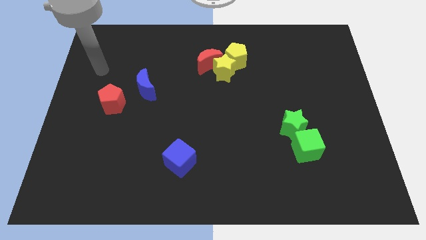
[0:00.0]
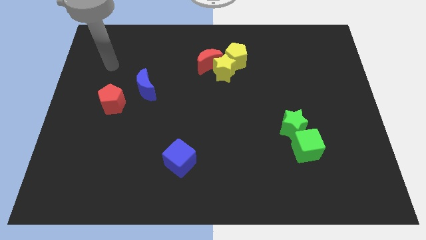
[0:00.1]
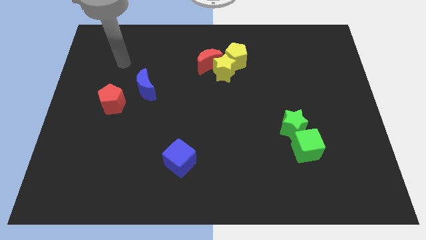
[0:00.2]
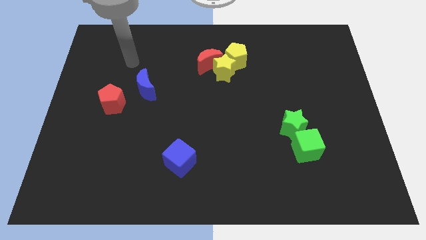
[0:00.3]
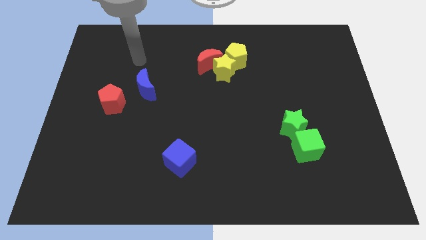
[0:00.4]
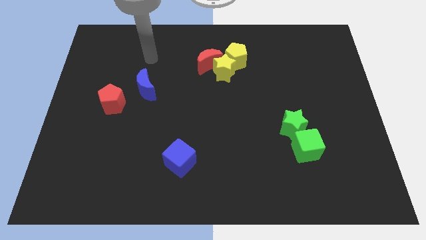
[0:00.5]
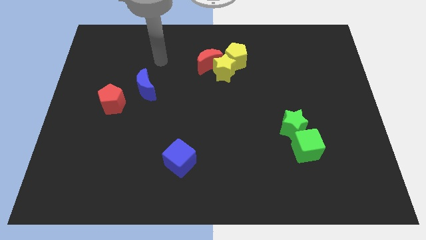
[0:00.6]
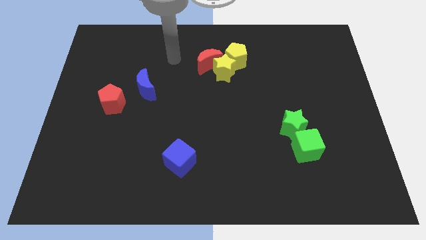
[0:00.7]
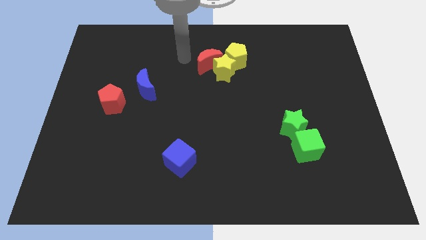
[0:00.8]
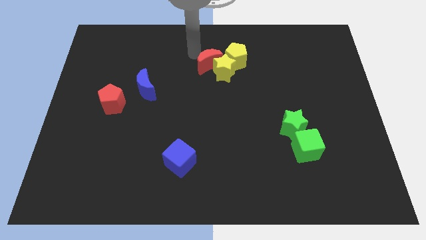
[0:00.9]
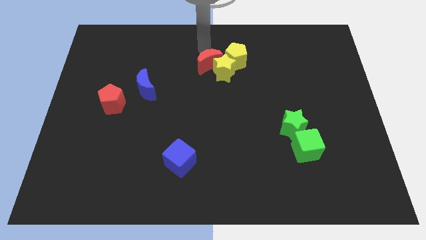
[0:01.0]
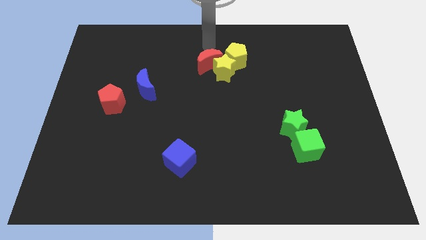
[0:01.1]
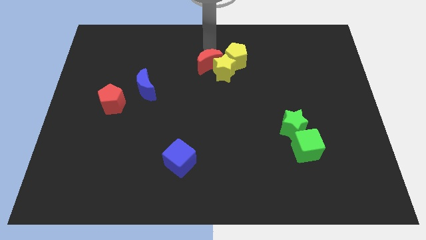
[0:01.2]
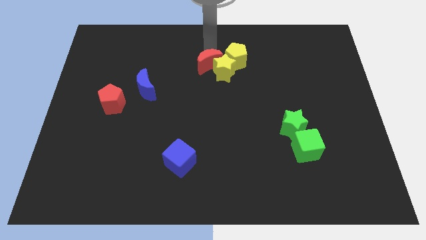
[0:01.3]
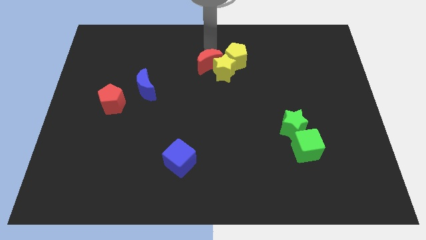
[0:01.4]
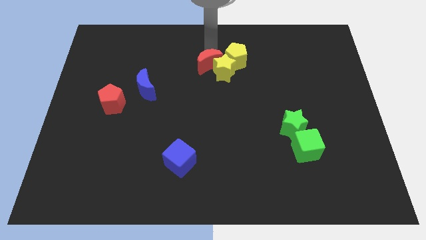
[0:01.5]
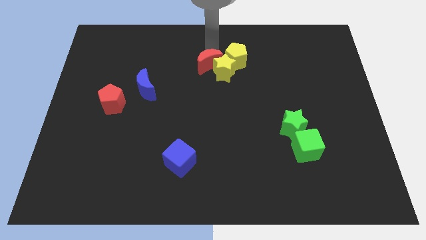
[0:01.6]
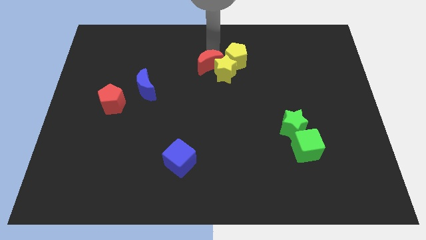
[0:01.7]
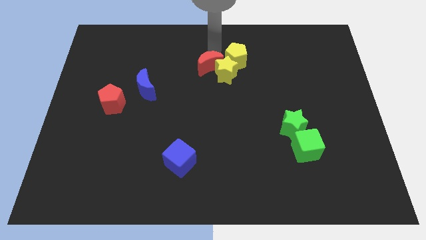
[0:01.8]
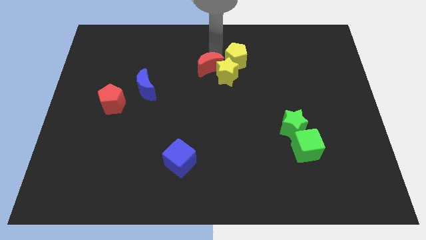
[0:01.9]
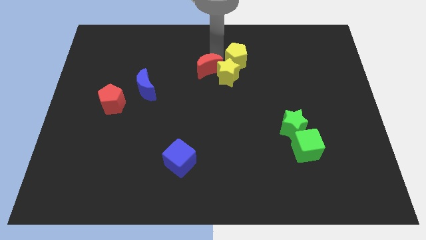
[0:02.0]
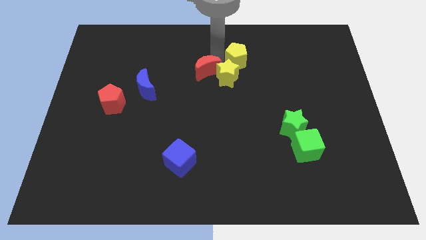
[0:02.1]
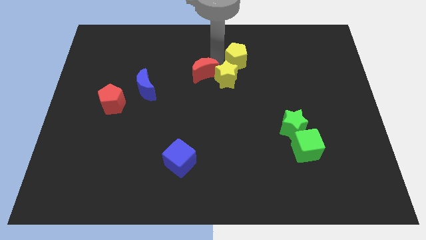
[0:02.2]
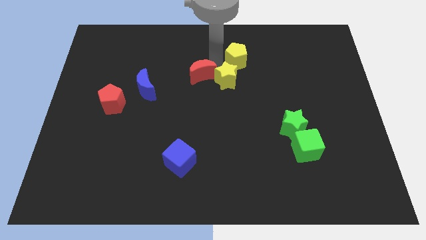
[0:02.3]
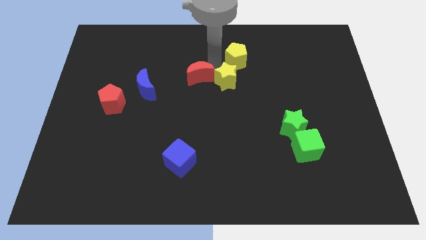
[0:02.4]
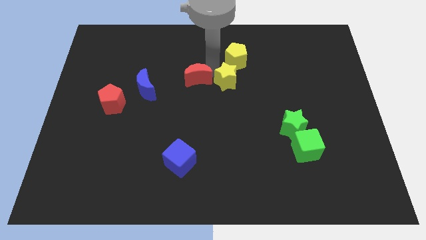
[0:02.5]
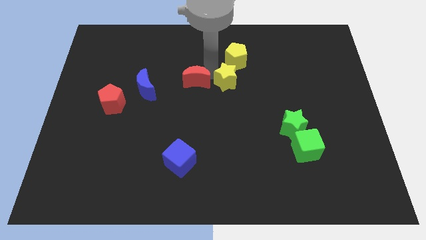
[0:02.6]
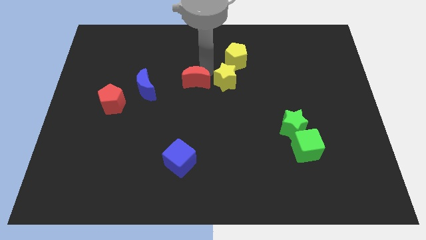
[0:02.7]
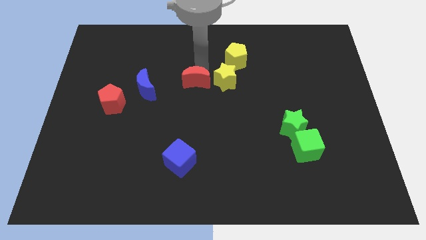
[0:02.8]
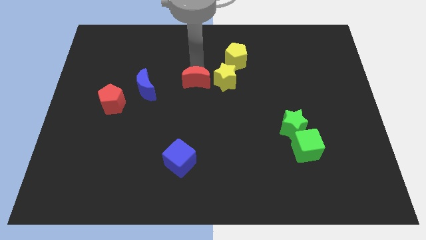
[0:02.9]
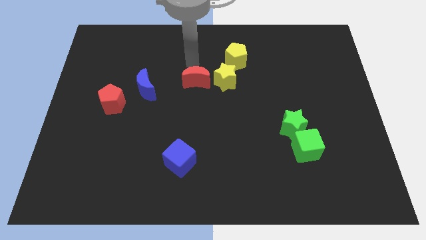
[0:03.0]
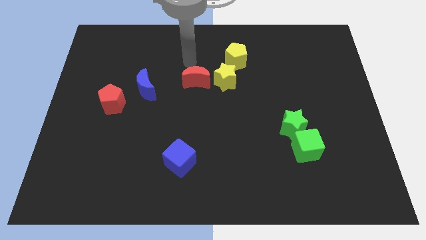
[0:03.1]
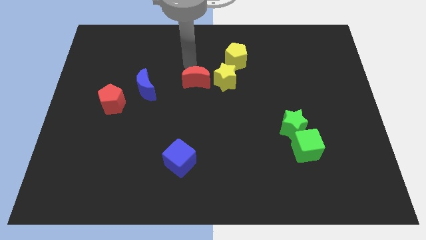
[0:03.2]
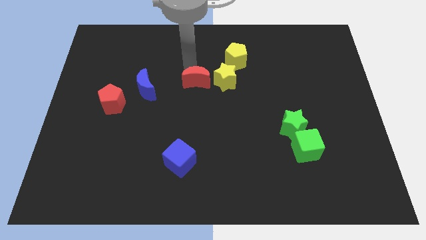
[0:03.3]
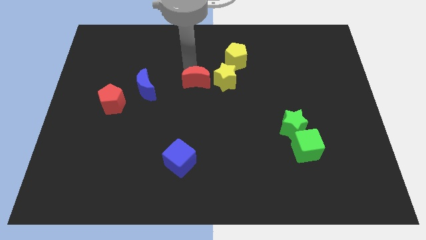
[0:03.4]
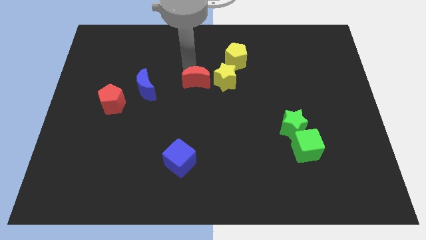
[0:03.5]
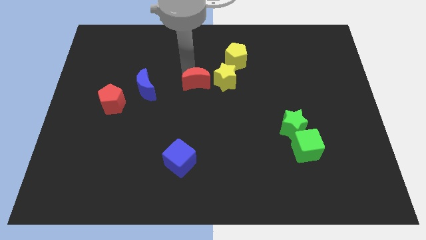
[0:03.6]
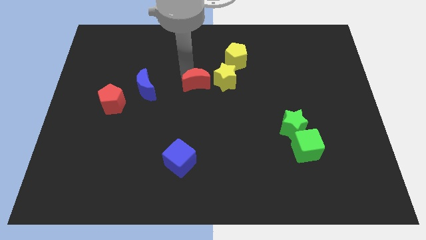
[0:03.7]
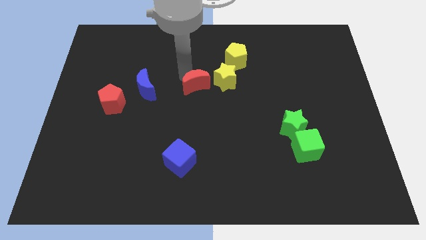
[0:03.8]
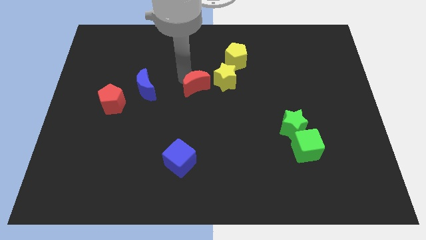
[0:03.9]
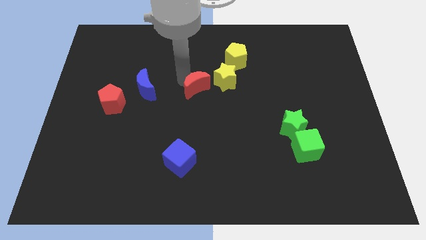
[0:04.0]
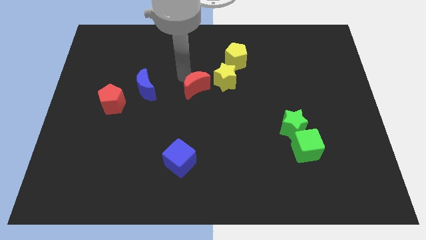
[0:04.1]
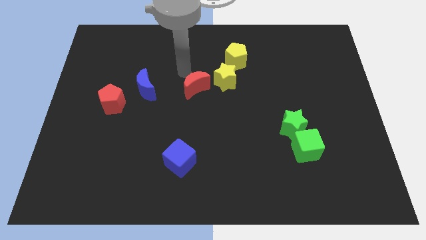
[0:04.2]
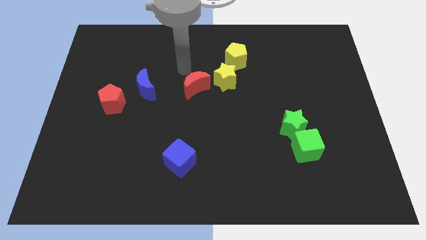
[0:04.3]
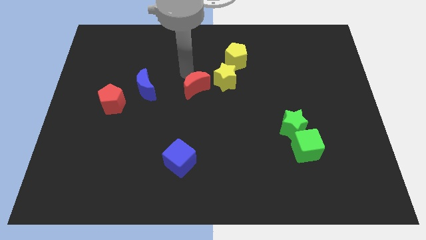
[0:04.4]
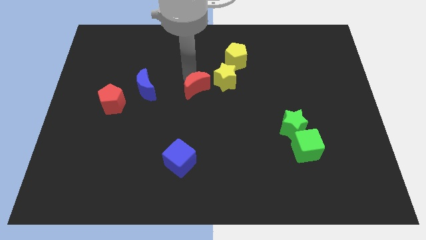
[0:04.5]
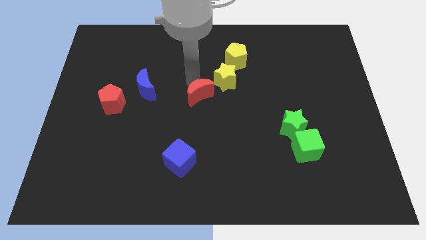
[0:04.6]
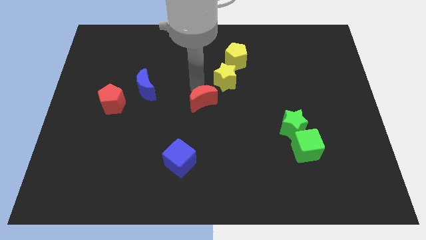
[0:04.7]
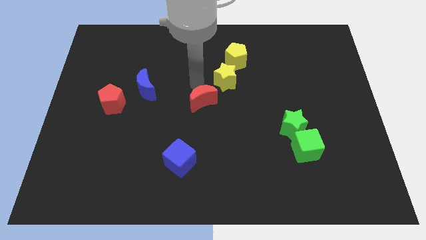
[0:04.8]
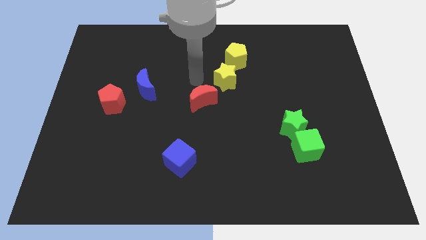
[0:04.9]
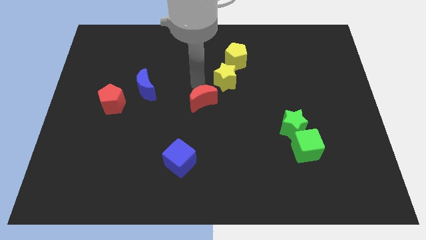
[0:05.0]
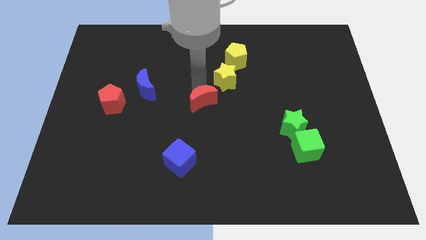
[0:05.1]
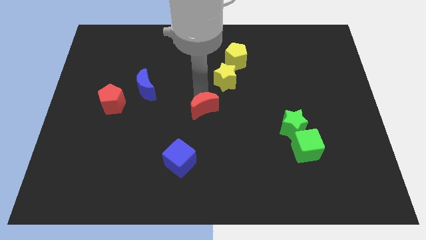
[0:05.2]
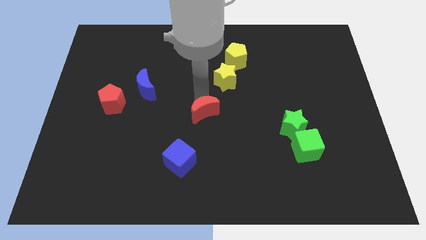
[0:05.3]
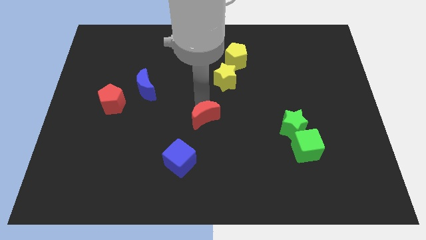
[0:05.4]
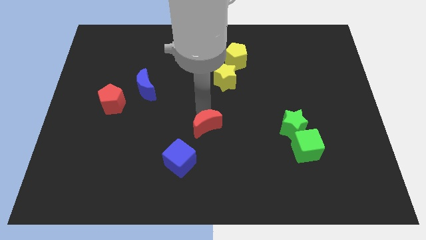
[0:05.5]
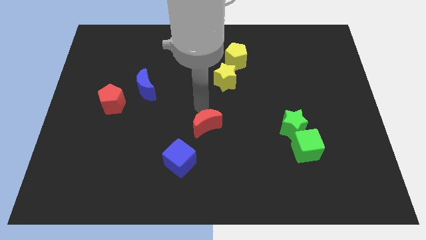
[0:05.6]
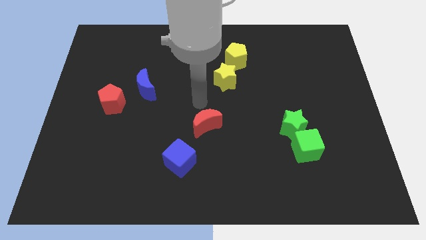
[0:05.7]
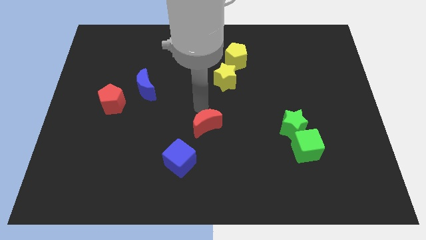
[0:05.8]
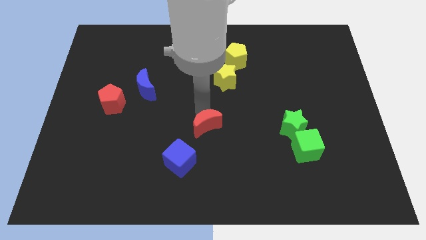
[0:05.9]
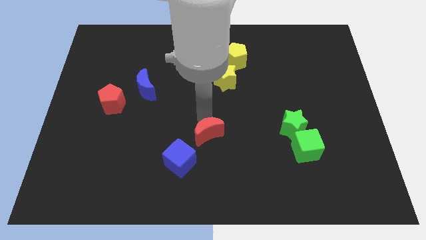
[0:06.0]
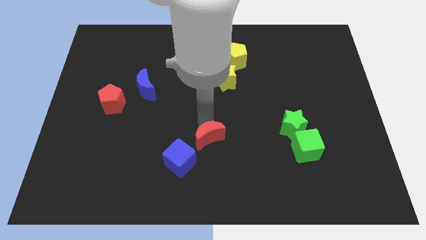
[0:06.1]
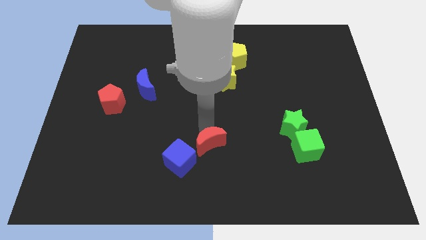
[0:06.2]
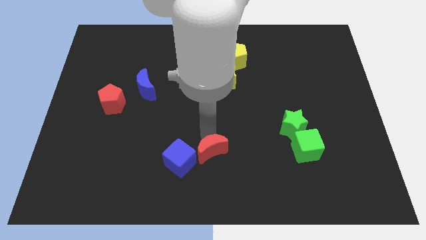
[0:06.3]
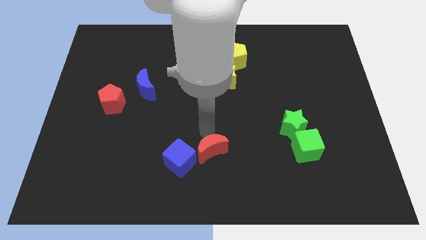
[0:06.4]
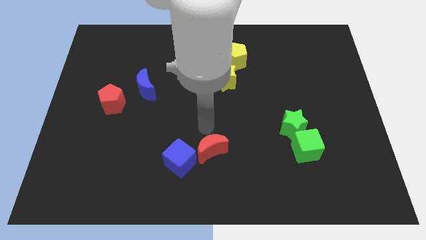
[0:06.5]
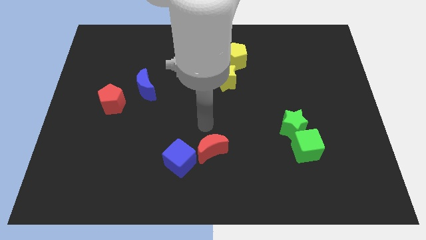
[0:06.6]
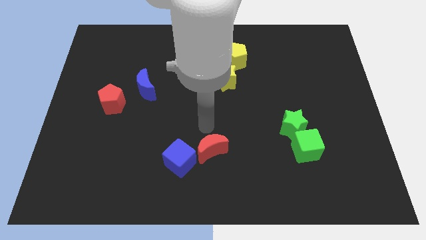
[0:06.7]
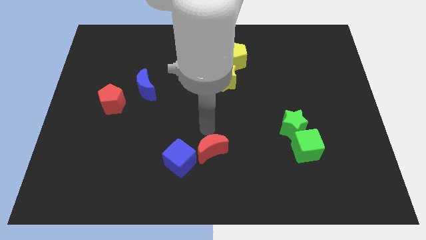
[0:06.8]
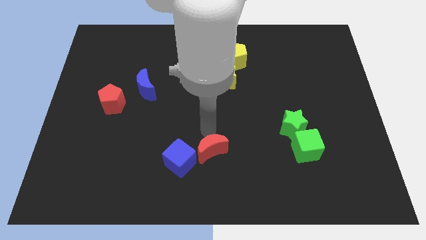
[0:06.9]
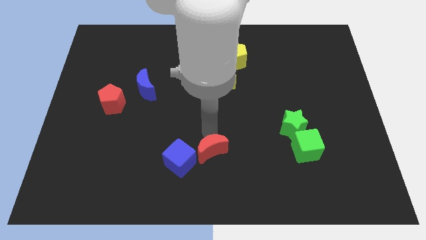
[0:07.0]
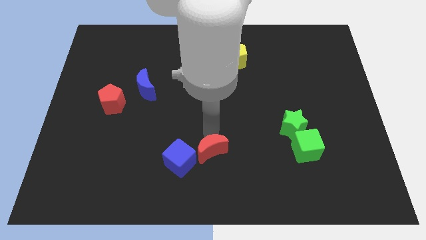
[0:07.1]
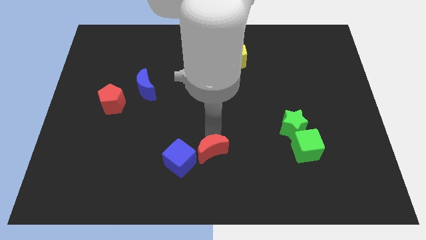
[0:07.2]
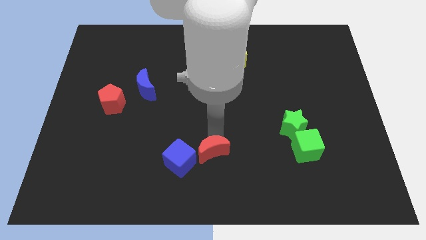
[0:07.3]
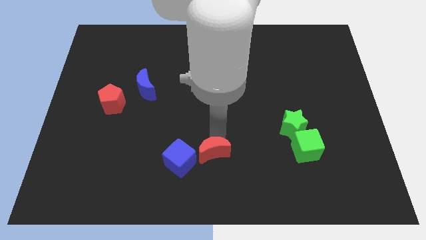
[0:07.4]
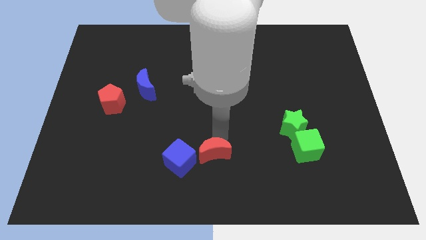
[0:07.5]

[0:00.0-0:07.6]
push the red moon to the bottom
